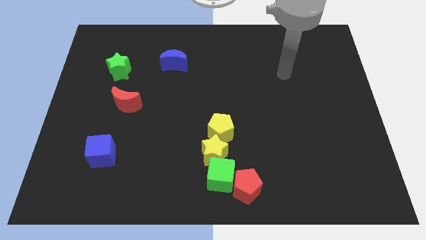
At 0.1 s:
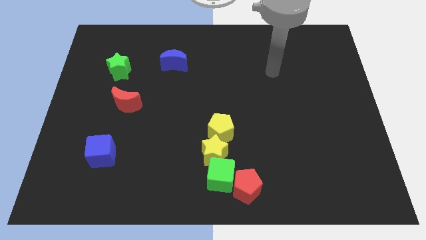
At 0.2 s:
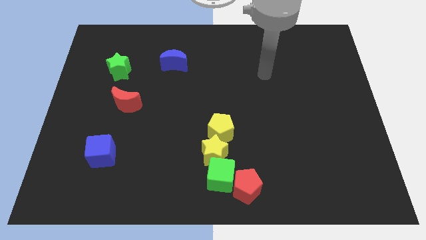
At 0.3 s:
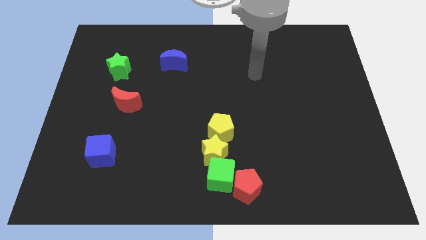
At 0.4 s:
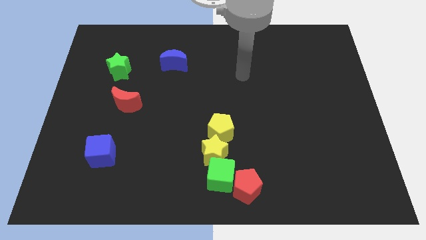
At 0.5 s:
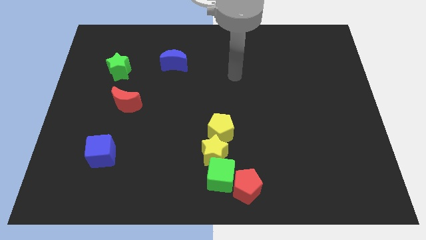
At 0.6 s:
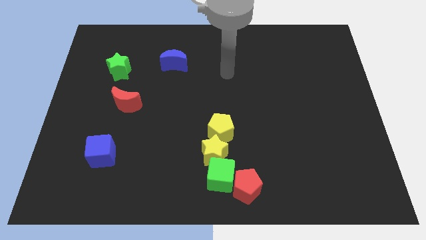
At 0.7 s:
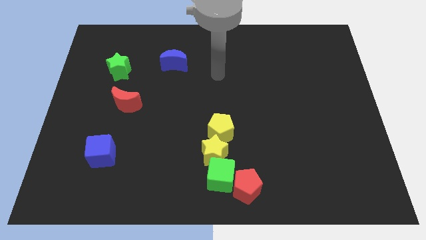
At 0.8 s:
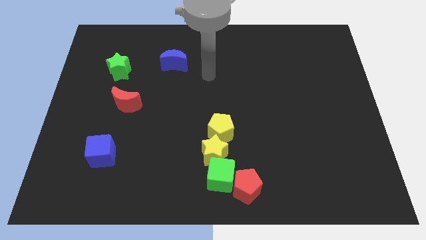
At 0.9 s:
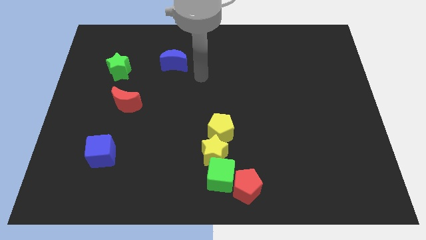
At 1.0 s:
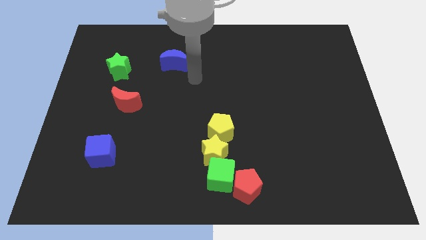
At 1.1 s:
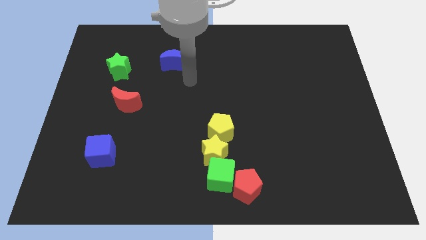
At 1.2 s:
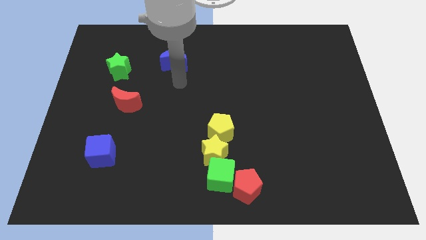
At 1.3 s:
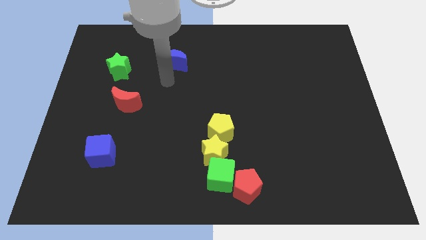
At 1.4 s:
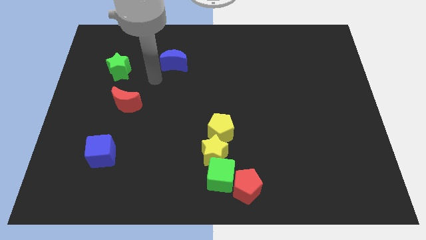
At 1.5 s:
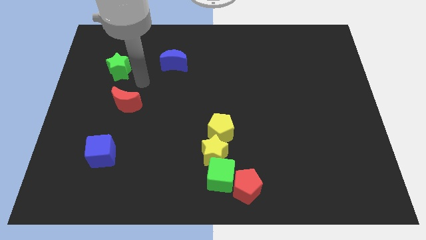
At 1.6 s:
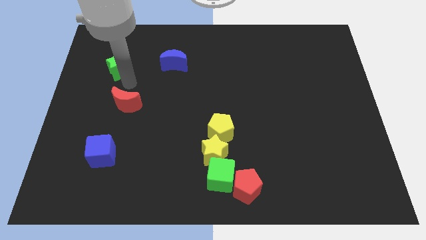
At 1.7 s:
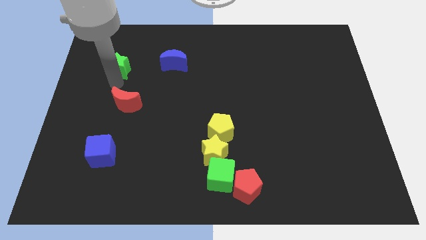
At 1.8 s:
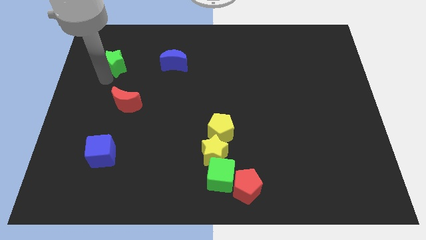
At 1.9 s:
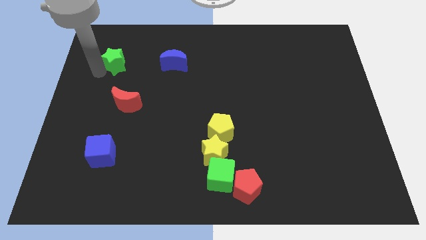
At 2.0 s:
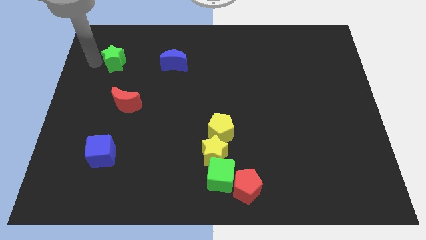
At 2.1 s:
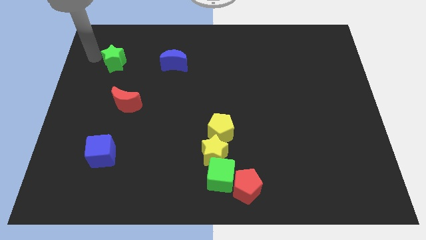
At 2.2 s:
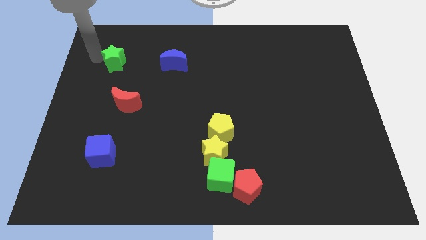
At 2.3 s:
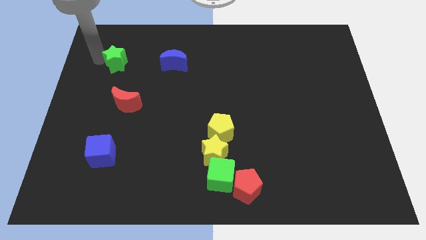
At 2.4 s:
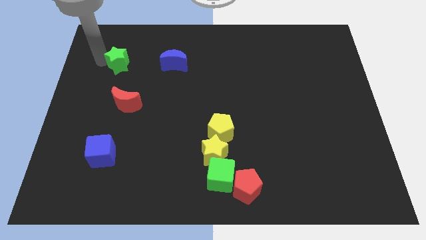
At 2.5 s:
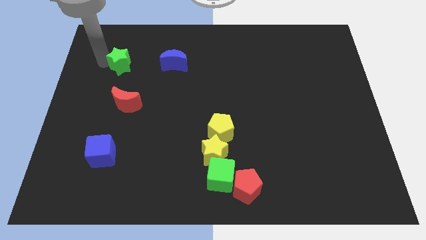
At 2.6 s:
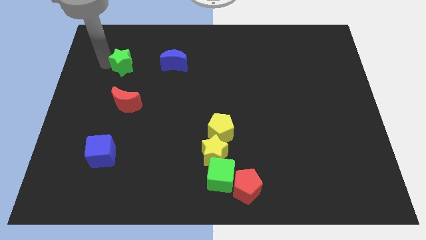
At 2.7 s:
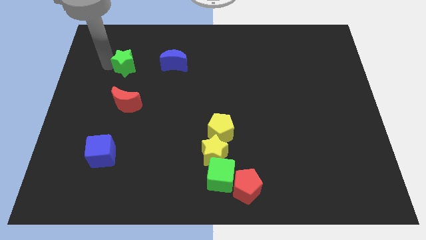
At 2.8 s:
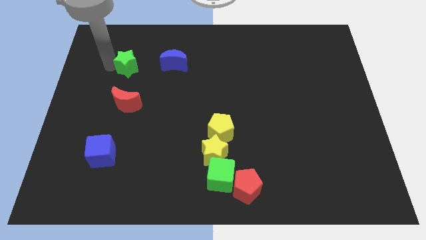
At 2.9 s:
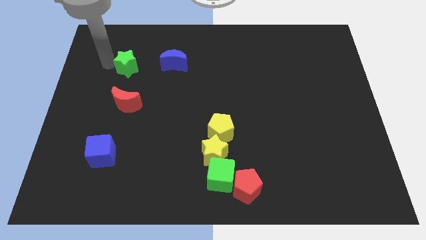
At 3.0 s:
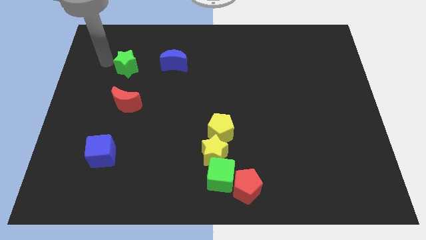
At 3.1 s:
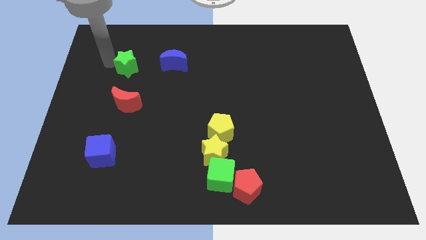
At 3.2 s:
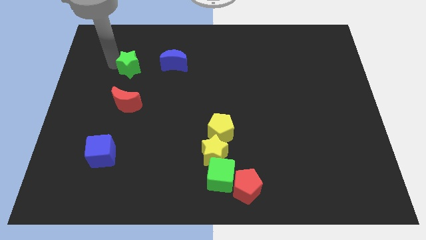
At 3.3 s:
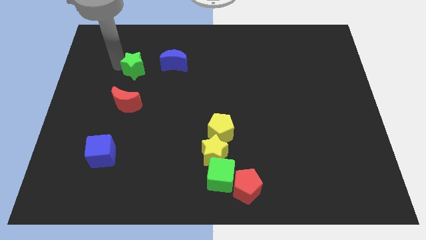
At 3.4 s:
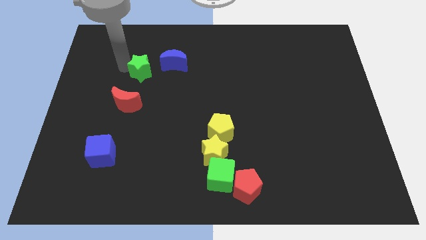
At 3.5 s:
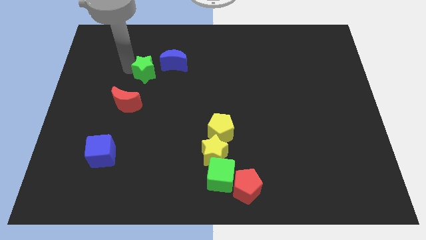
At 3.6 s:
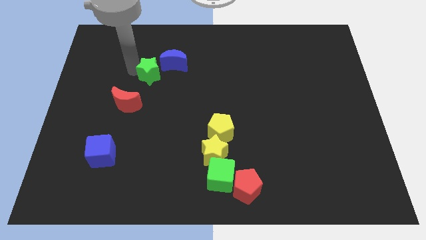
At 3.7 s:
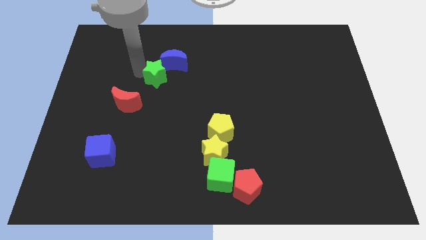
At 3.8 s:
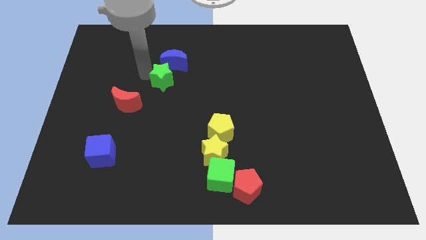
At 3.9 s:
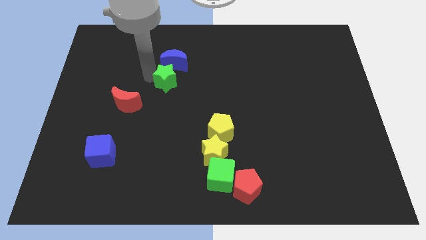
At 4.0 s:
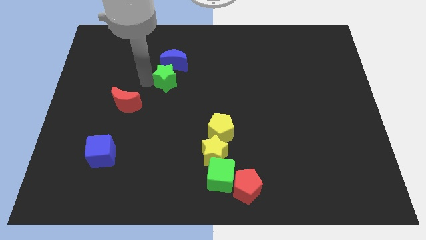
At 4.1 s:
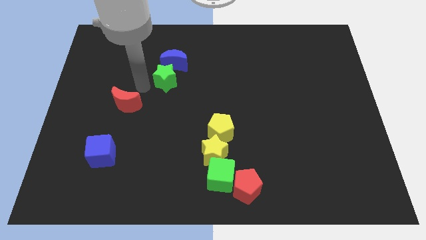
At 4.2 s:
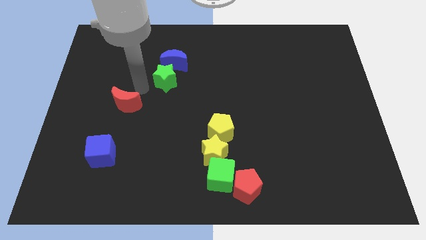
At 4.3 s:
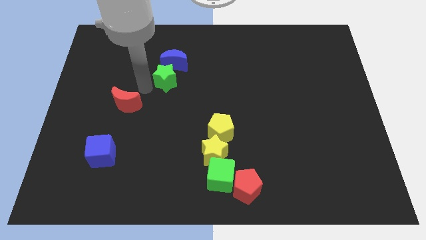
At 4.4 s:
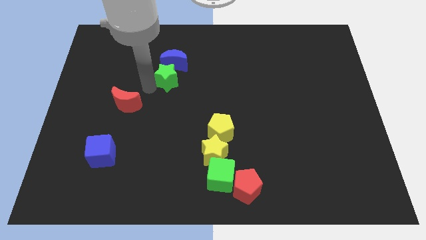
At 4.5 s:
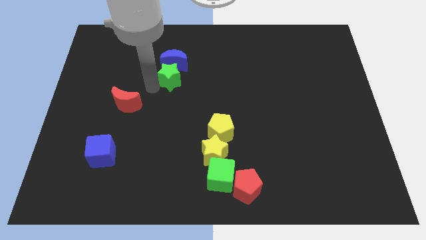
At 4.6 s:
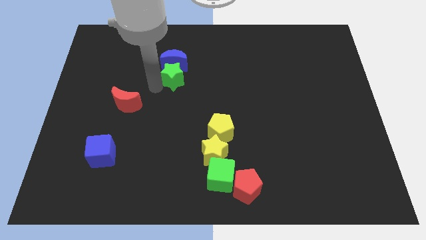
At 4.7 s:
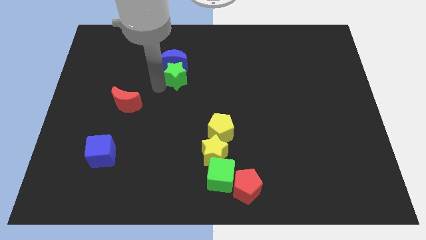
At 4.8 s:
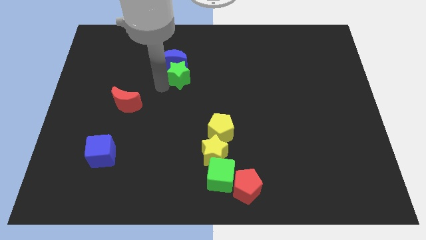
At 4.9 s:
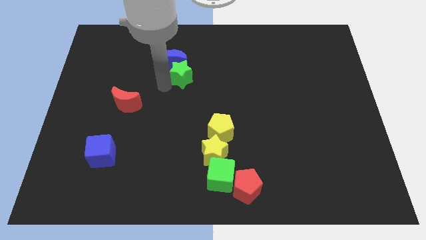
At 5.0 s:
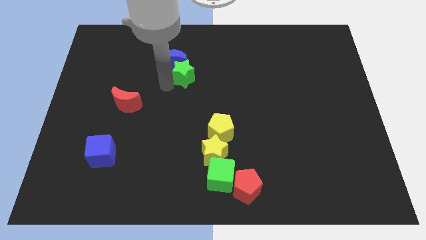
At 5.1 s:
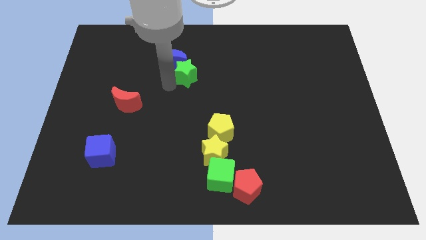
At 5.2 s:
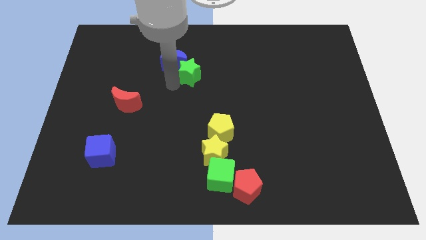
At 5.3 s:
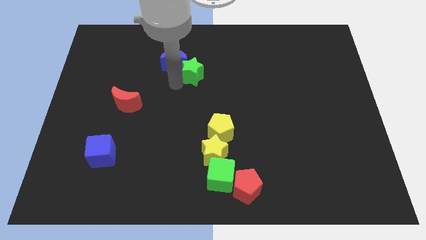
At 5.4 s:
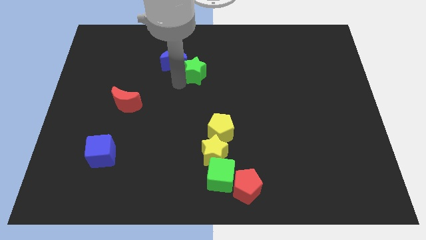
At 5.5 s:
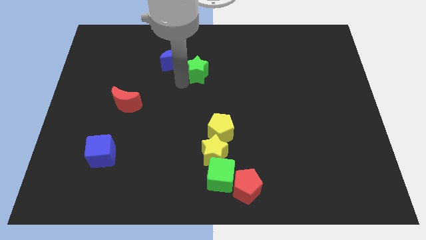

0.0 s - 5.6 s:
move the green star right

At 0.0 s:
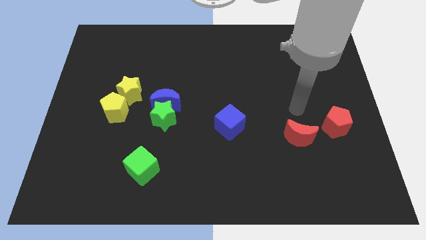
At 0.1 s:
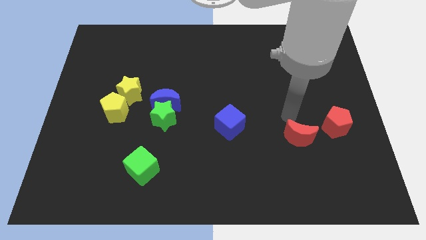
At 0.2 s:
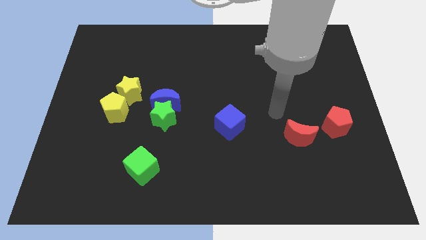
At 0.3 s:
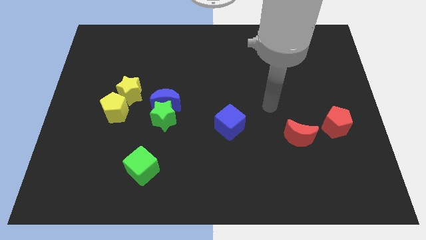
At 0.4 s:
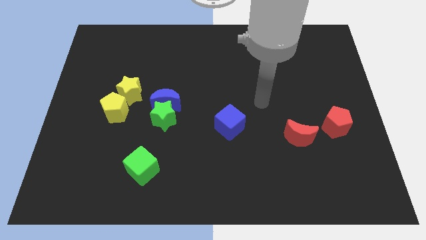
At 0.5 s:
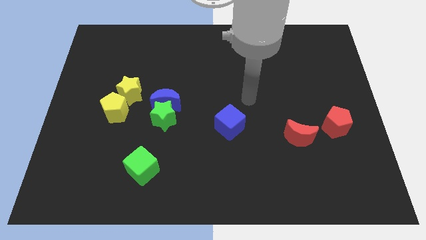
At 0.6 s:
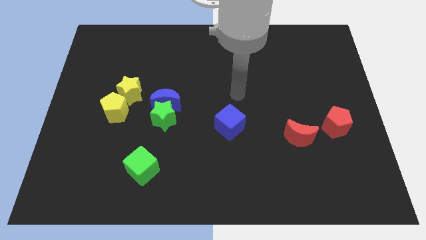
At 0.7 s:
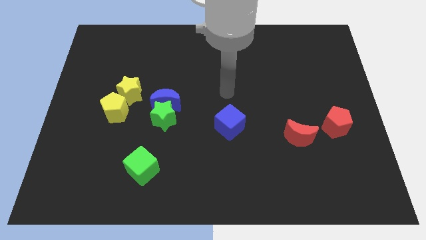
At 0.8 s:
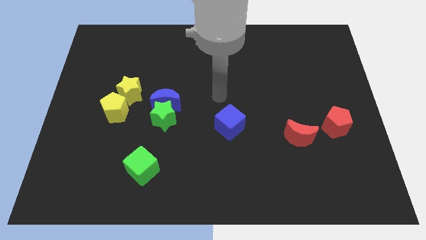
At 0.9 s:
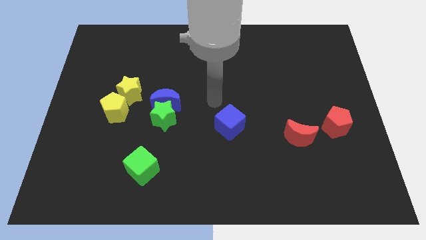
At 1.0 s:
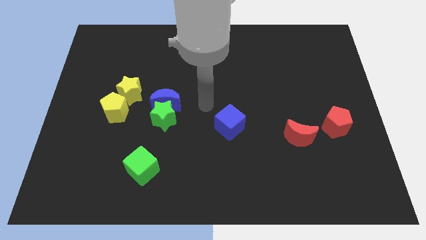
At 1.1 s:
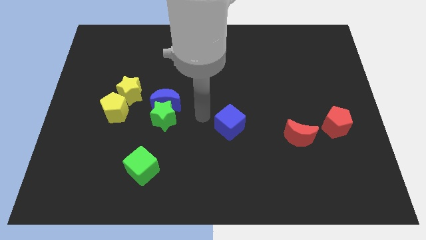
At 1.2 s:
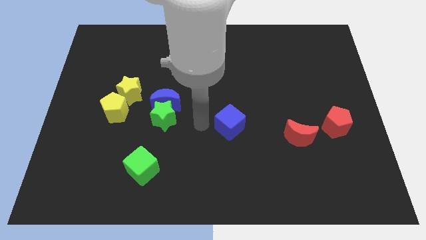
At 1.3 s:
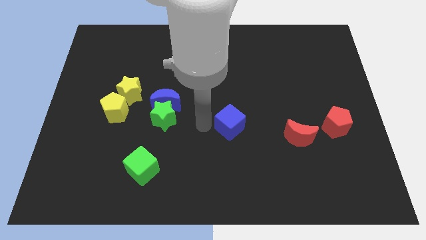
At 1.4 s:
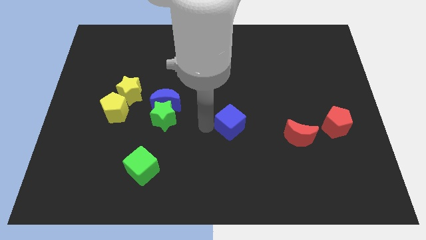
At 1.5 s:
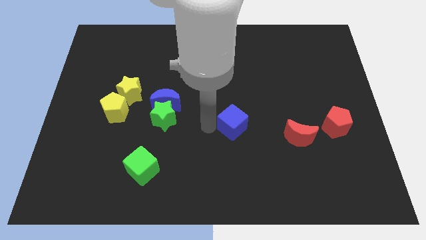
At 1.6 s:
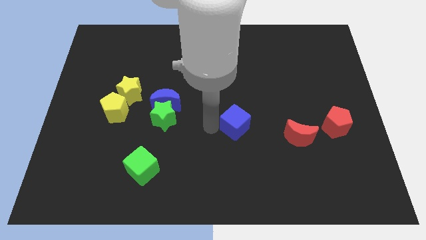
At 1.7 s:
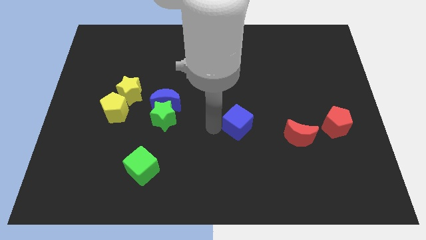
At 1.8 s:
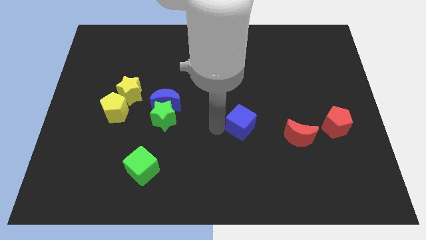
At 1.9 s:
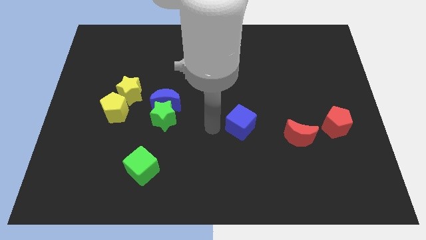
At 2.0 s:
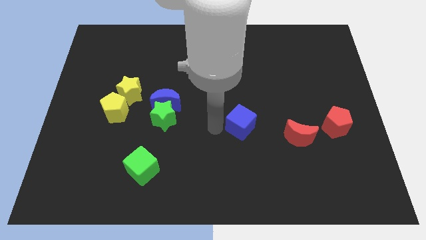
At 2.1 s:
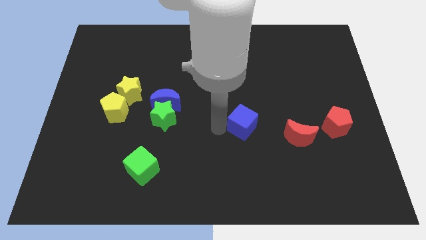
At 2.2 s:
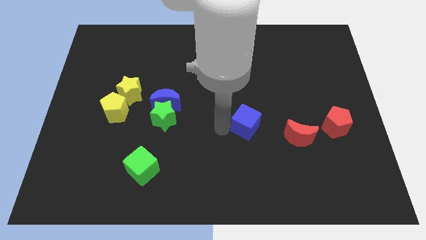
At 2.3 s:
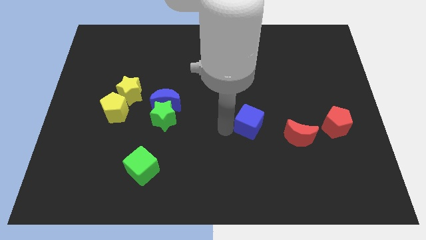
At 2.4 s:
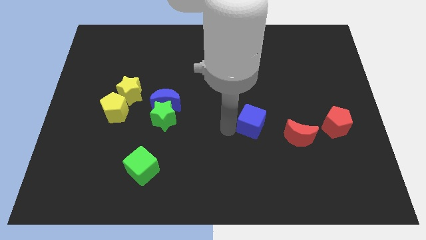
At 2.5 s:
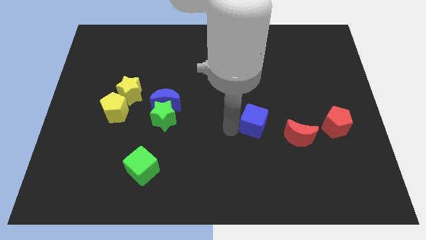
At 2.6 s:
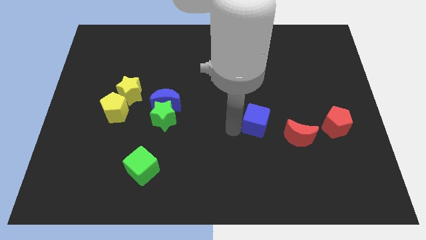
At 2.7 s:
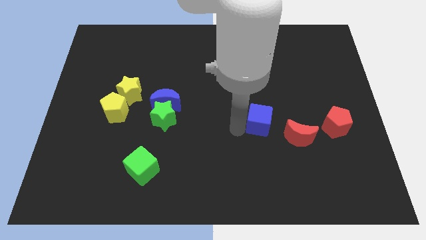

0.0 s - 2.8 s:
slide the blue cube right a little
